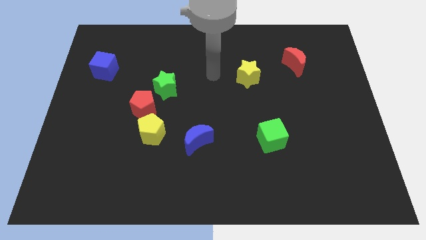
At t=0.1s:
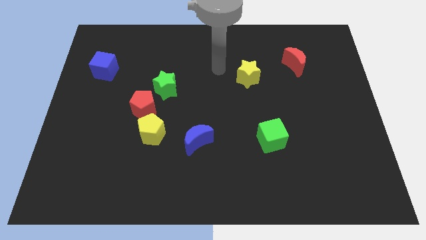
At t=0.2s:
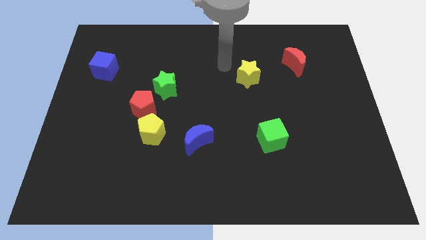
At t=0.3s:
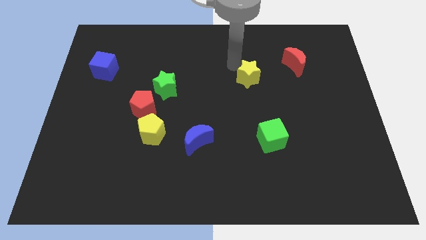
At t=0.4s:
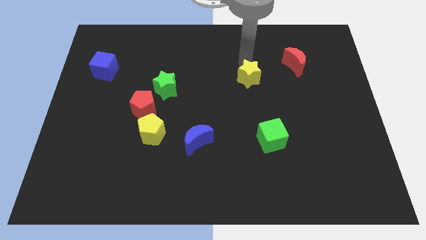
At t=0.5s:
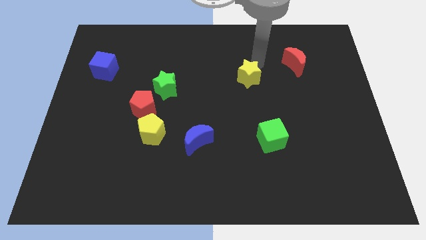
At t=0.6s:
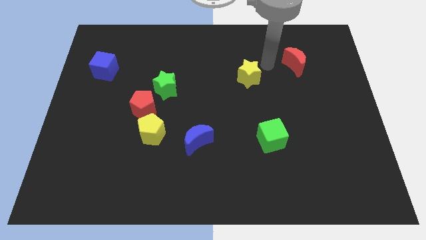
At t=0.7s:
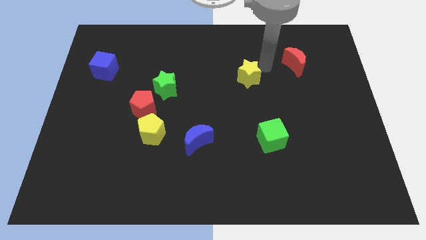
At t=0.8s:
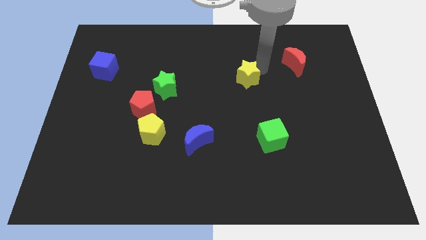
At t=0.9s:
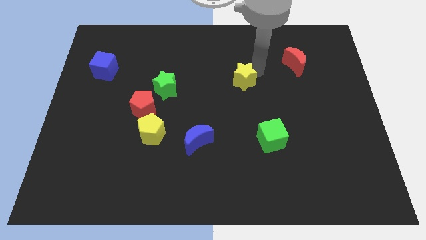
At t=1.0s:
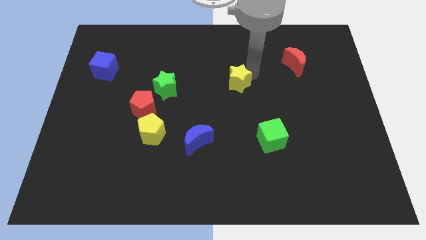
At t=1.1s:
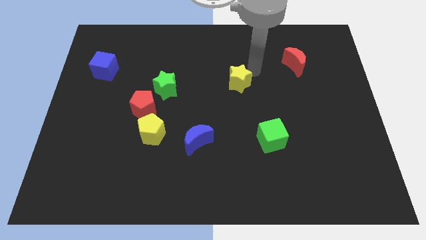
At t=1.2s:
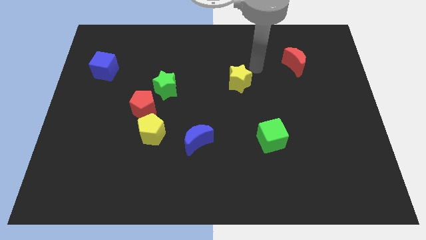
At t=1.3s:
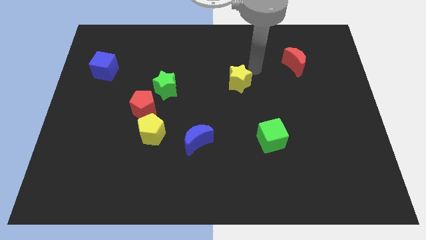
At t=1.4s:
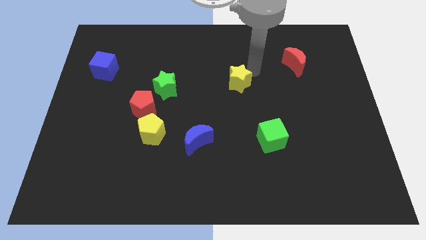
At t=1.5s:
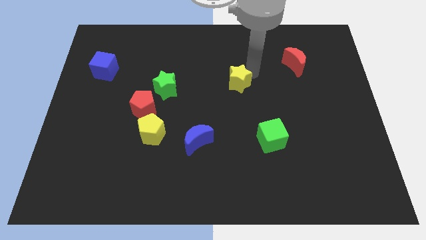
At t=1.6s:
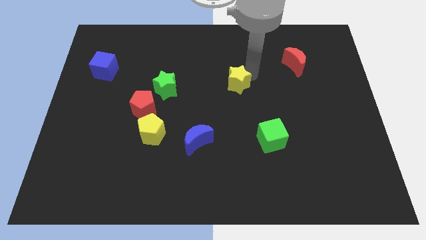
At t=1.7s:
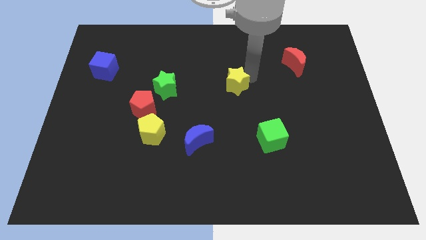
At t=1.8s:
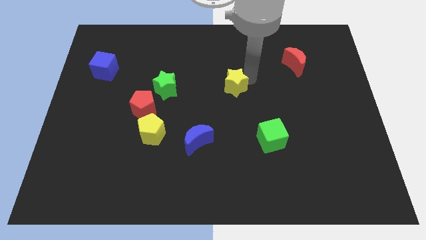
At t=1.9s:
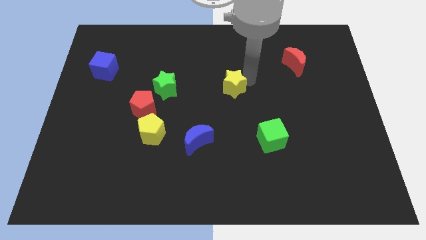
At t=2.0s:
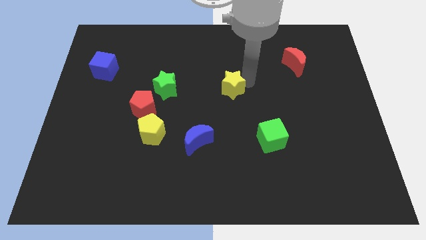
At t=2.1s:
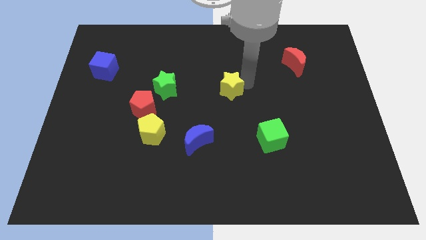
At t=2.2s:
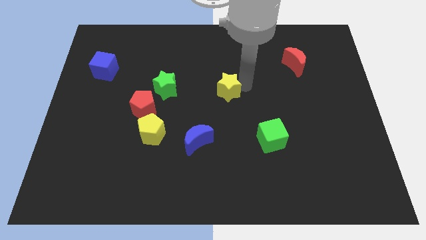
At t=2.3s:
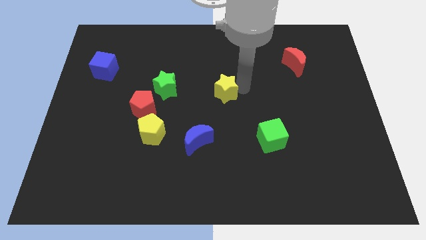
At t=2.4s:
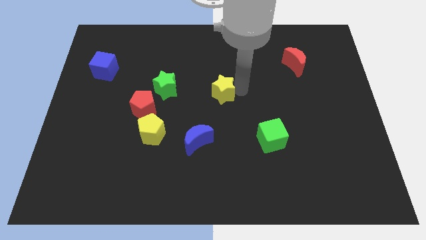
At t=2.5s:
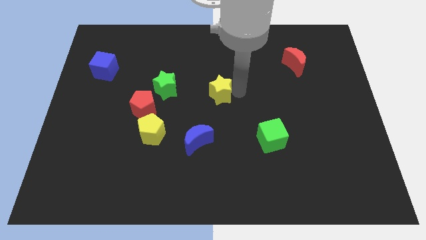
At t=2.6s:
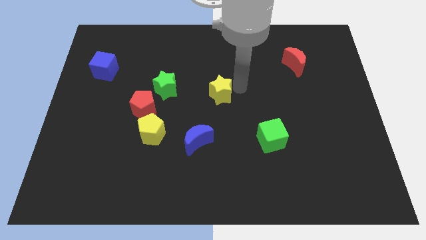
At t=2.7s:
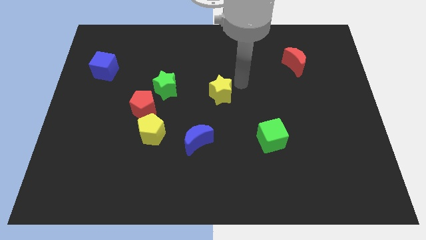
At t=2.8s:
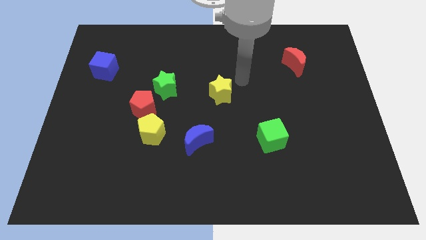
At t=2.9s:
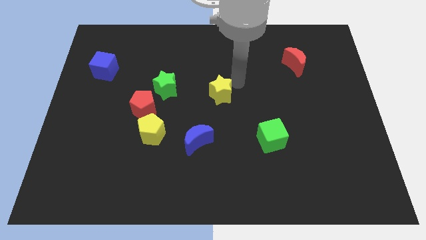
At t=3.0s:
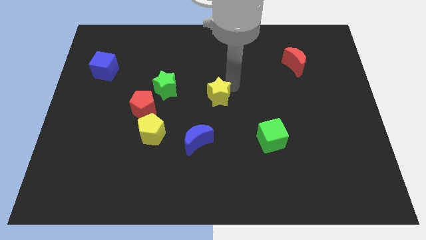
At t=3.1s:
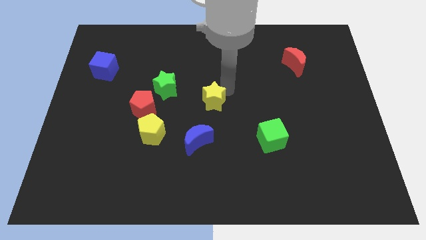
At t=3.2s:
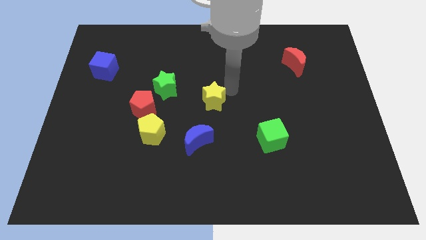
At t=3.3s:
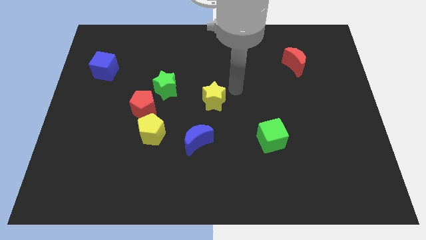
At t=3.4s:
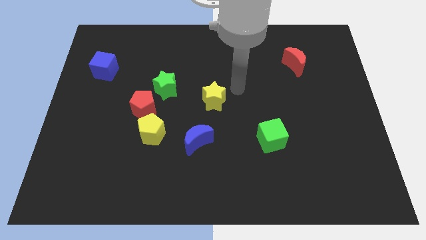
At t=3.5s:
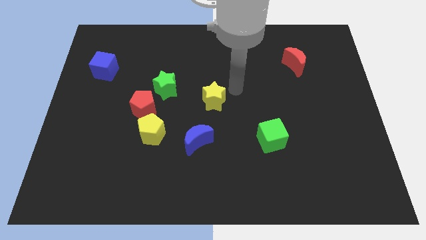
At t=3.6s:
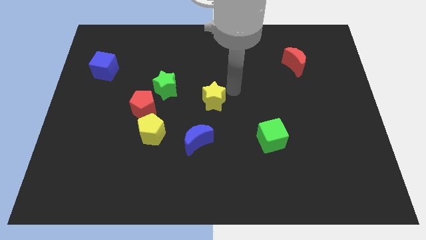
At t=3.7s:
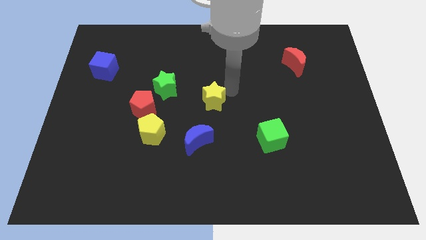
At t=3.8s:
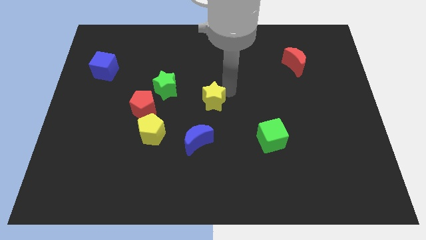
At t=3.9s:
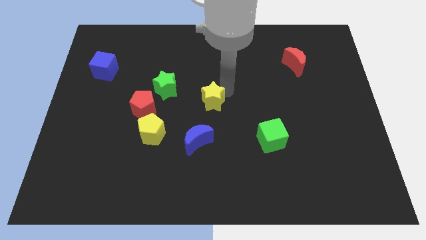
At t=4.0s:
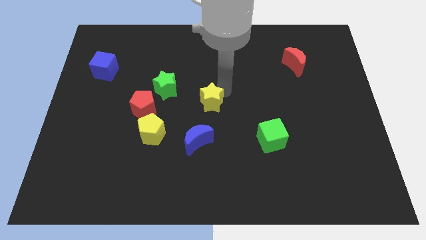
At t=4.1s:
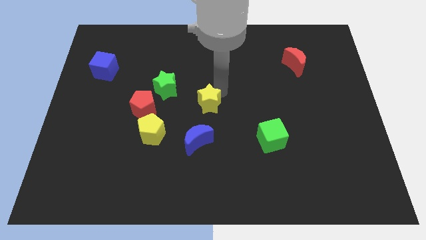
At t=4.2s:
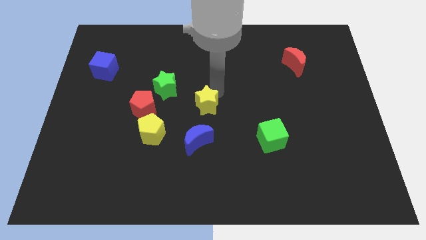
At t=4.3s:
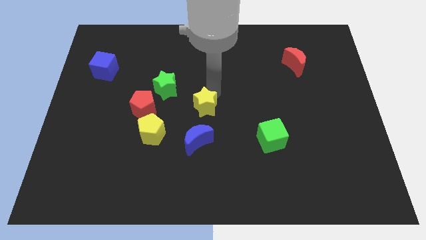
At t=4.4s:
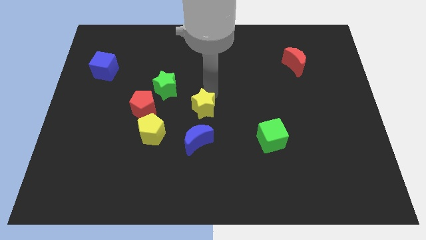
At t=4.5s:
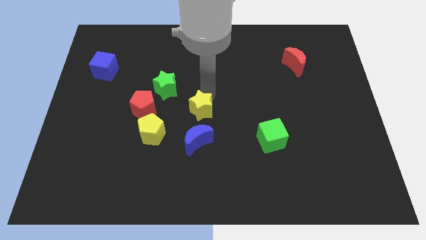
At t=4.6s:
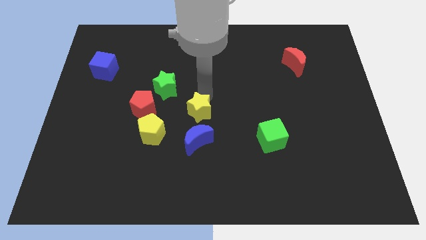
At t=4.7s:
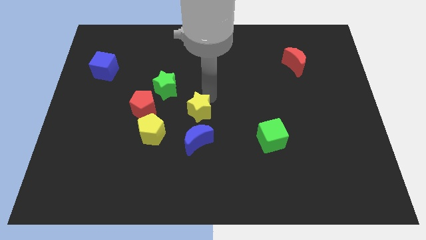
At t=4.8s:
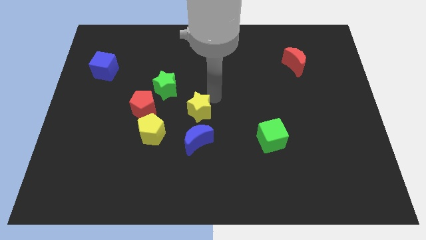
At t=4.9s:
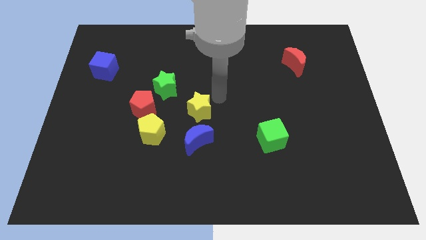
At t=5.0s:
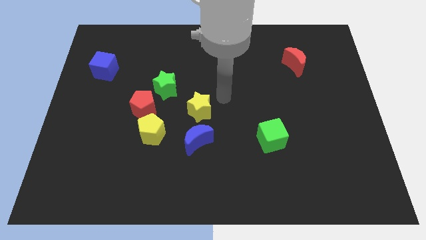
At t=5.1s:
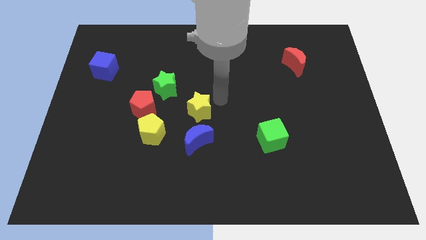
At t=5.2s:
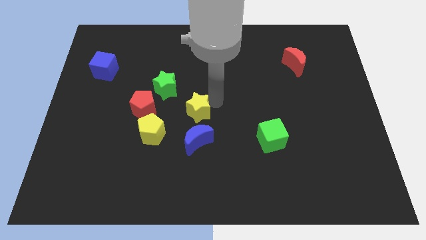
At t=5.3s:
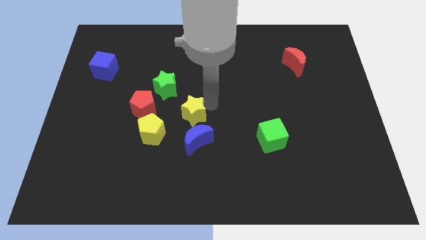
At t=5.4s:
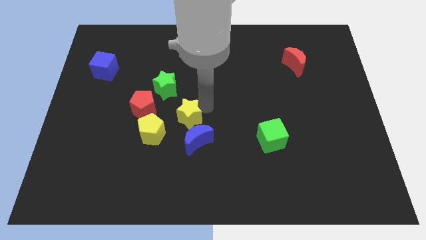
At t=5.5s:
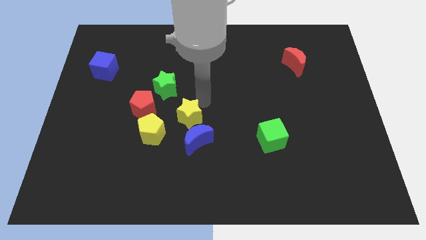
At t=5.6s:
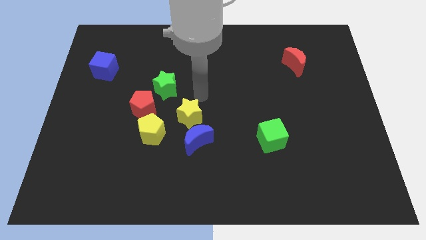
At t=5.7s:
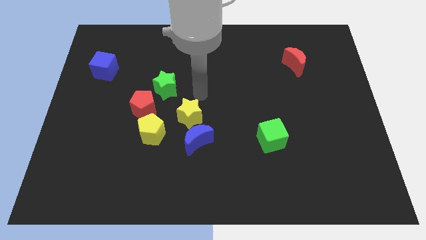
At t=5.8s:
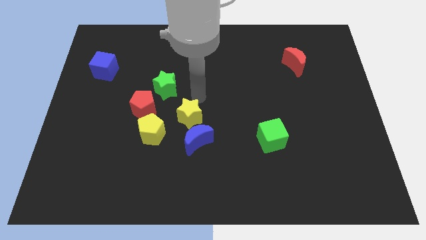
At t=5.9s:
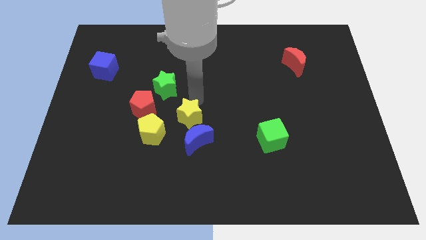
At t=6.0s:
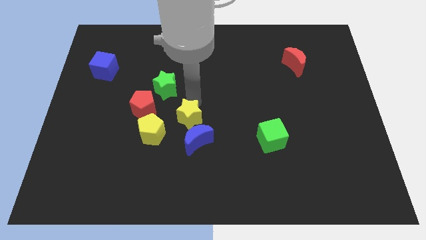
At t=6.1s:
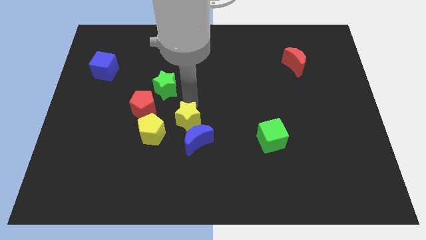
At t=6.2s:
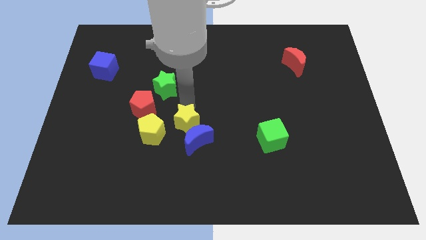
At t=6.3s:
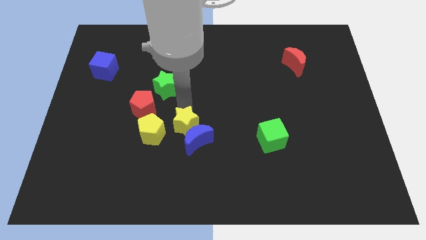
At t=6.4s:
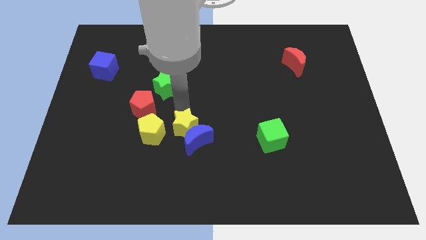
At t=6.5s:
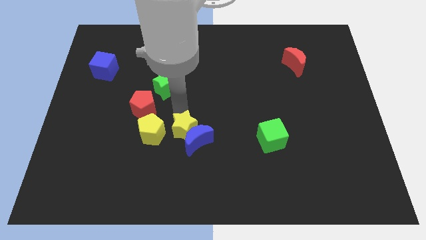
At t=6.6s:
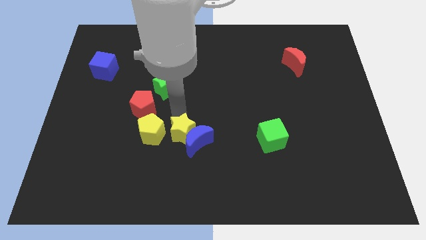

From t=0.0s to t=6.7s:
put the yellow star diagonally down and to the right of the yellow pentagon

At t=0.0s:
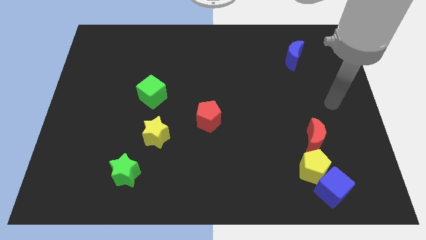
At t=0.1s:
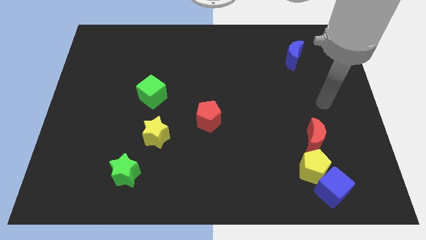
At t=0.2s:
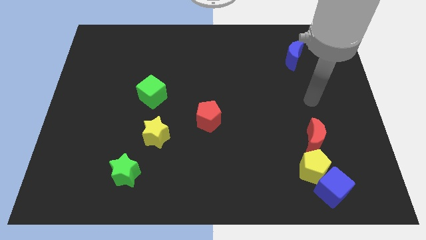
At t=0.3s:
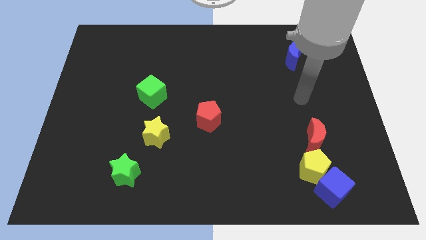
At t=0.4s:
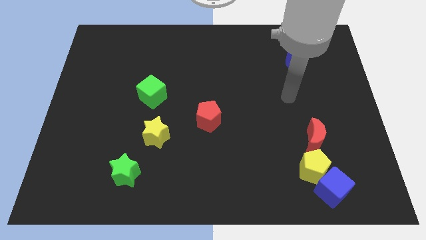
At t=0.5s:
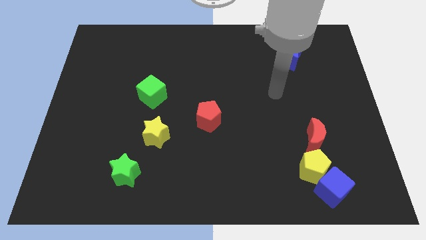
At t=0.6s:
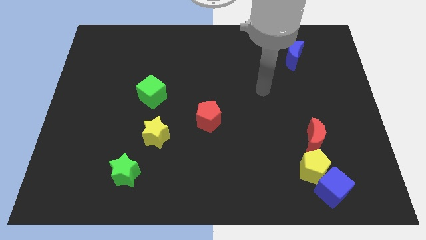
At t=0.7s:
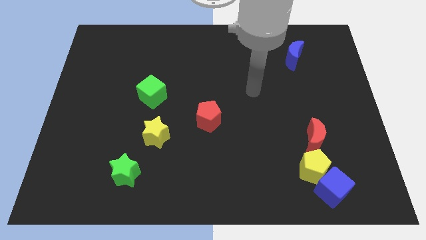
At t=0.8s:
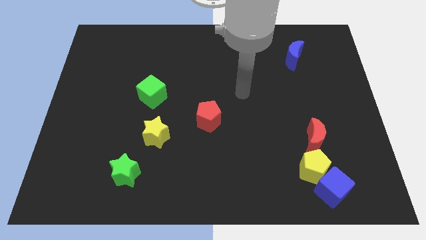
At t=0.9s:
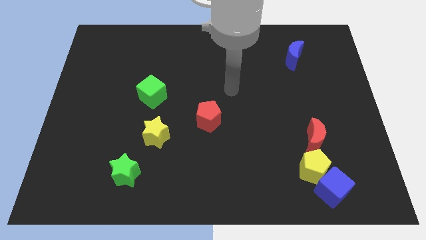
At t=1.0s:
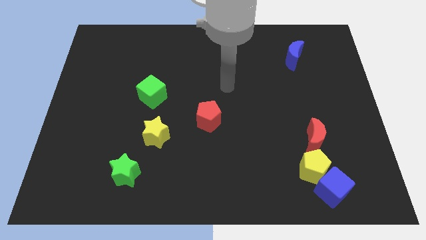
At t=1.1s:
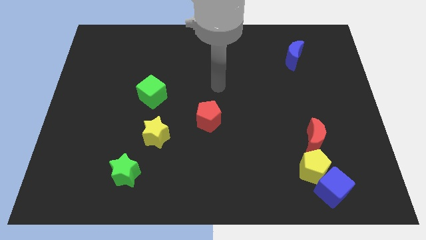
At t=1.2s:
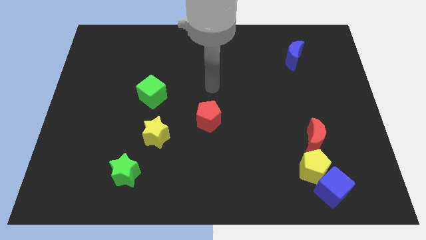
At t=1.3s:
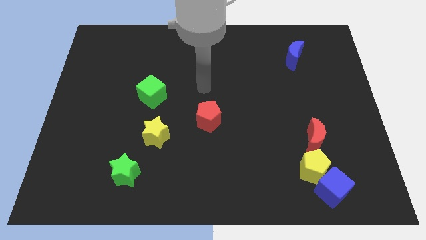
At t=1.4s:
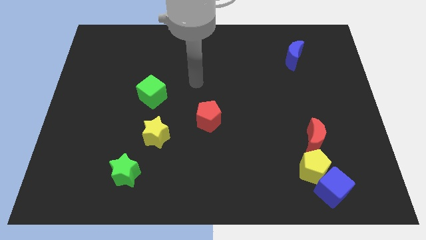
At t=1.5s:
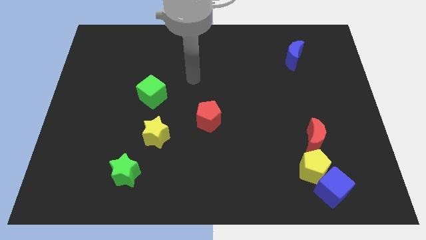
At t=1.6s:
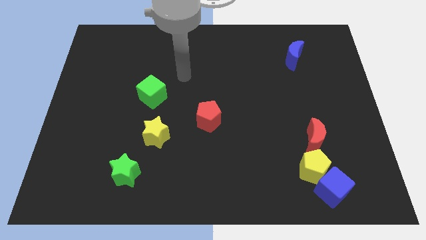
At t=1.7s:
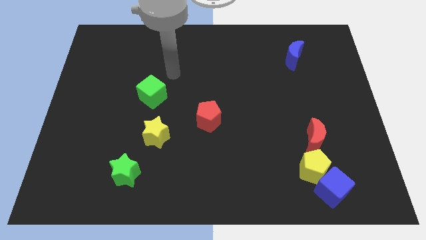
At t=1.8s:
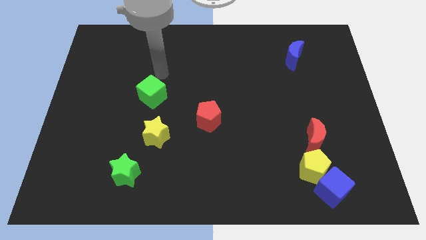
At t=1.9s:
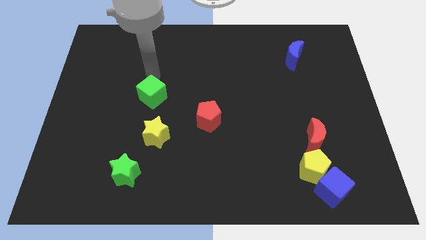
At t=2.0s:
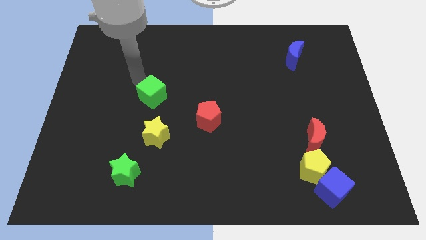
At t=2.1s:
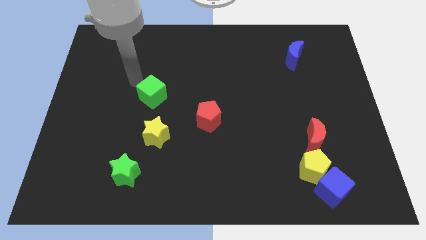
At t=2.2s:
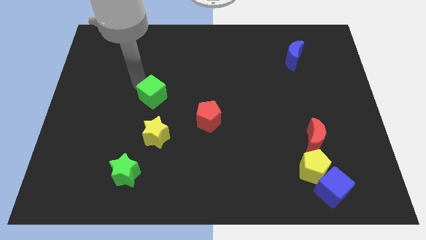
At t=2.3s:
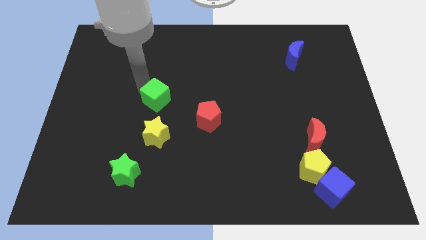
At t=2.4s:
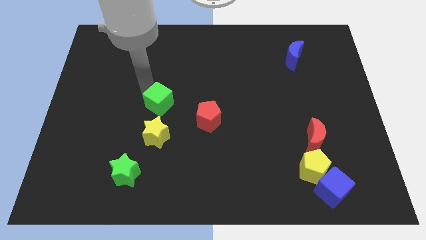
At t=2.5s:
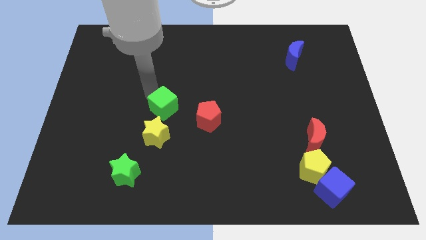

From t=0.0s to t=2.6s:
push the green cube diagonally up and to the right of the yellow star
